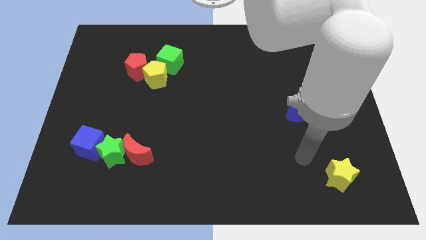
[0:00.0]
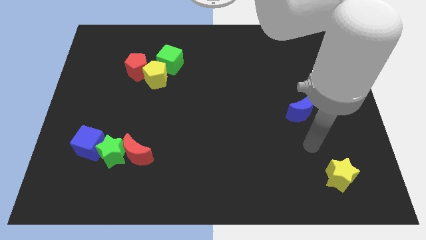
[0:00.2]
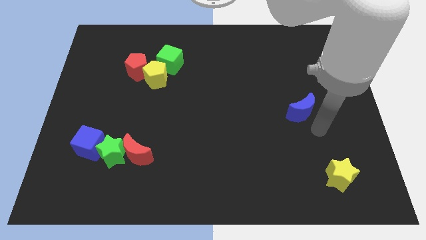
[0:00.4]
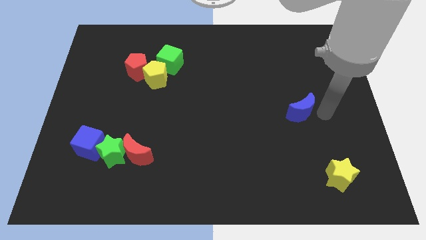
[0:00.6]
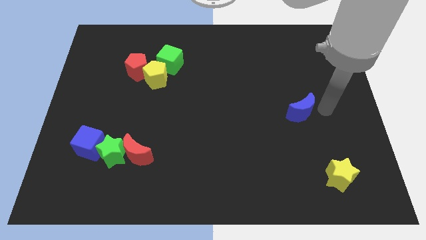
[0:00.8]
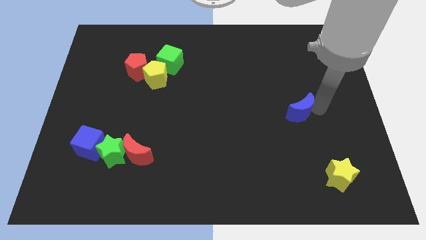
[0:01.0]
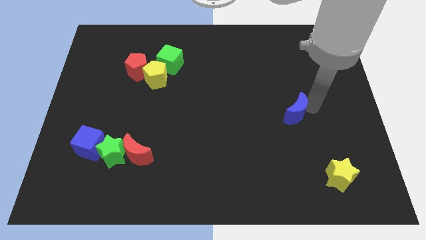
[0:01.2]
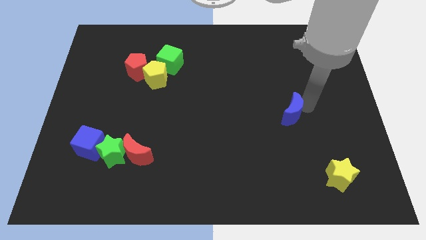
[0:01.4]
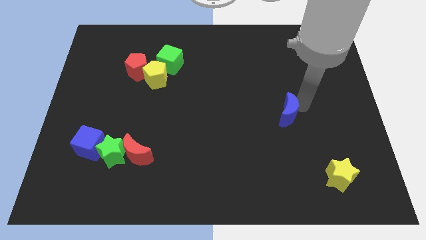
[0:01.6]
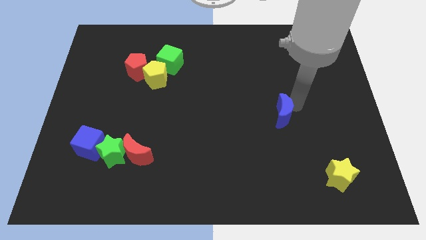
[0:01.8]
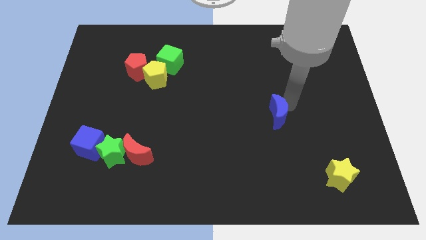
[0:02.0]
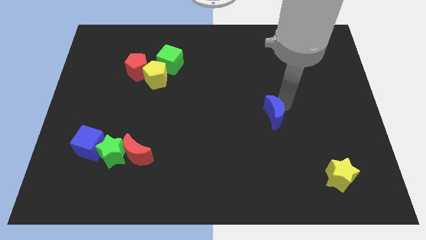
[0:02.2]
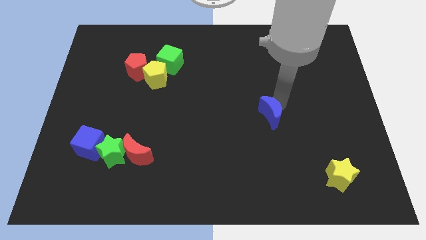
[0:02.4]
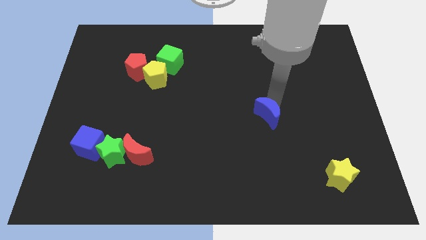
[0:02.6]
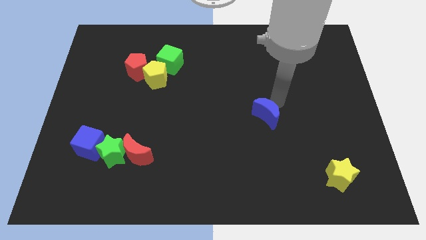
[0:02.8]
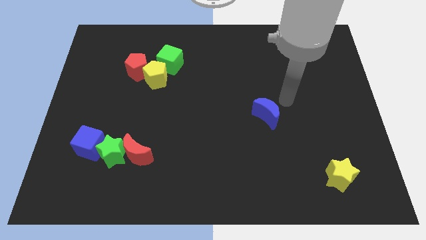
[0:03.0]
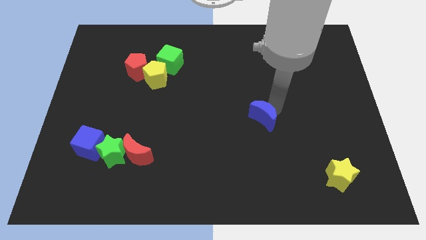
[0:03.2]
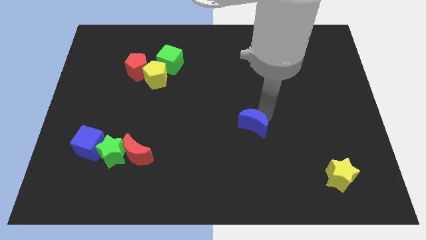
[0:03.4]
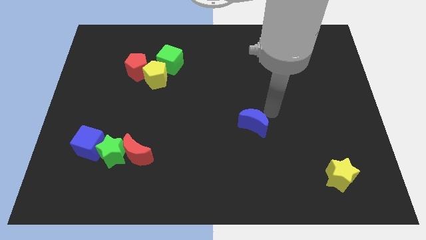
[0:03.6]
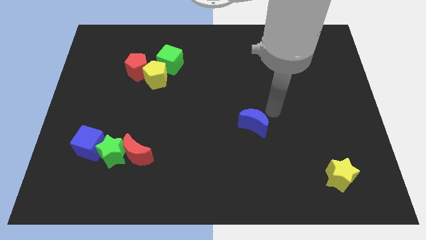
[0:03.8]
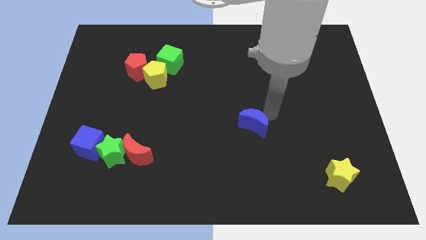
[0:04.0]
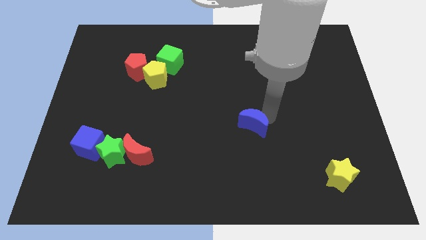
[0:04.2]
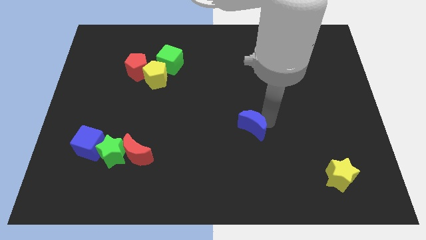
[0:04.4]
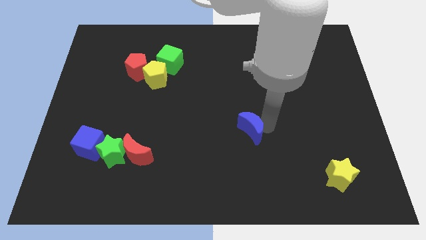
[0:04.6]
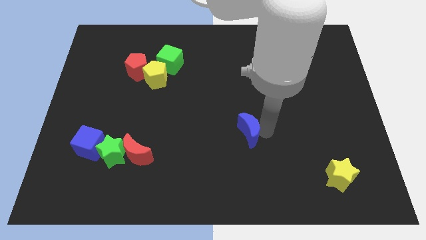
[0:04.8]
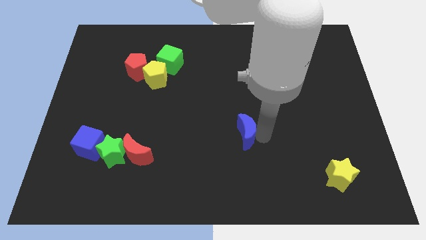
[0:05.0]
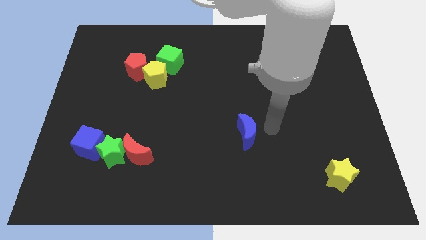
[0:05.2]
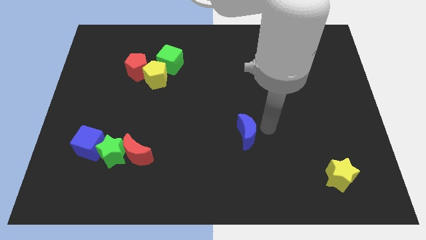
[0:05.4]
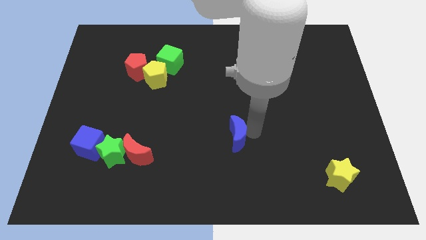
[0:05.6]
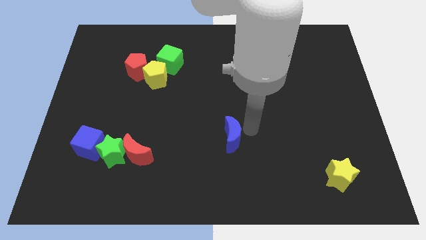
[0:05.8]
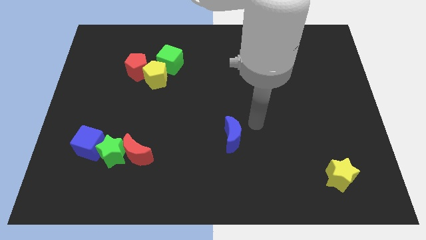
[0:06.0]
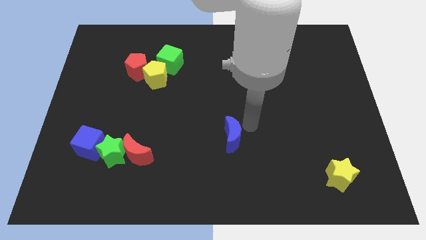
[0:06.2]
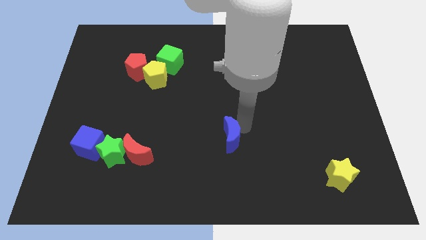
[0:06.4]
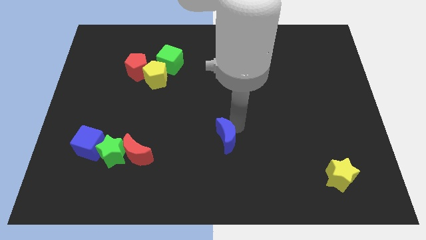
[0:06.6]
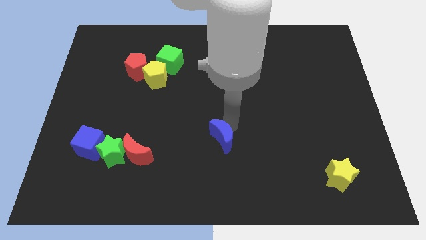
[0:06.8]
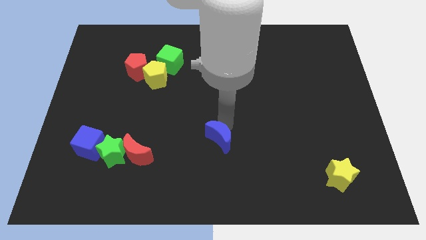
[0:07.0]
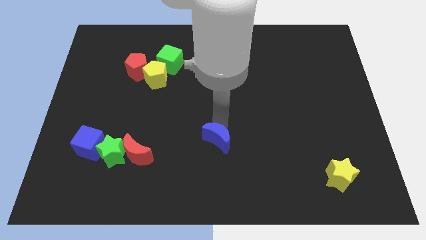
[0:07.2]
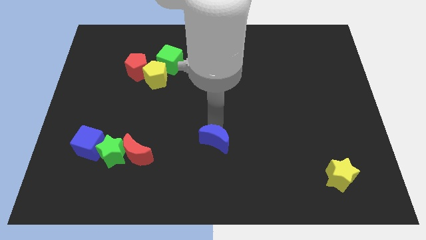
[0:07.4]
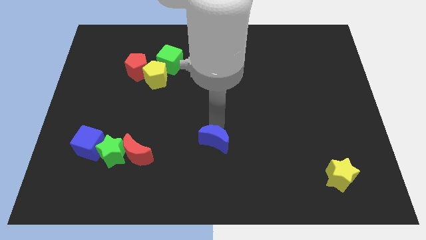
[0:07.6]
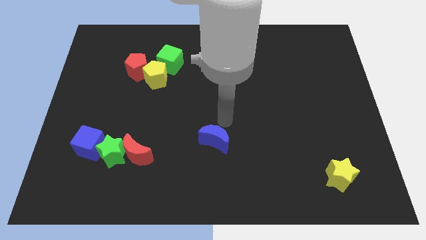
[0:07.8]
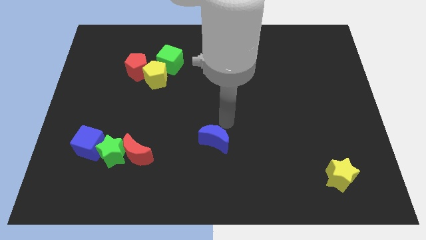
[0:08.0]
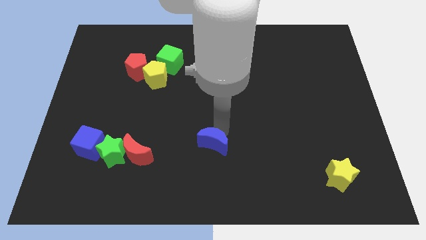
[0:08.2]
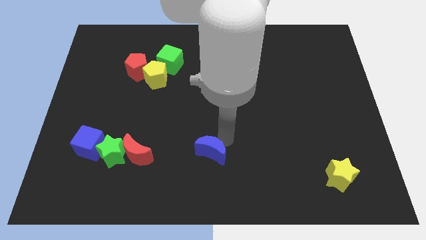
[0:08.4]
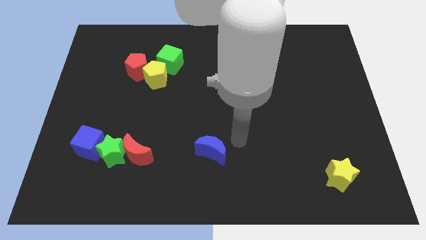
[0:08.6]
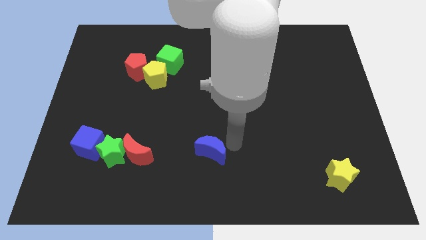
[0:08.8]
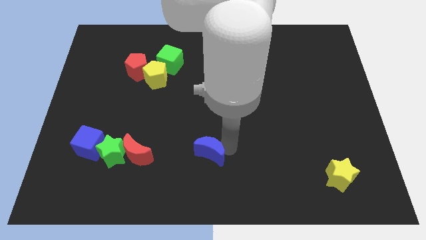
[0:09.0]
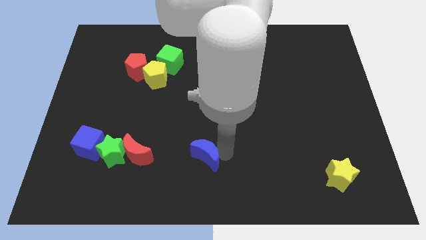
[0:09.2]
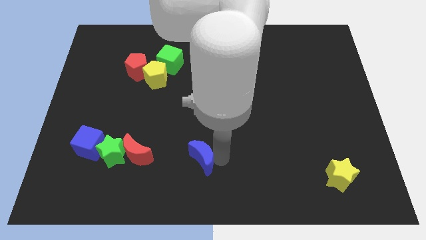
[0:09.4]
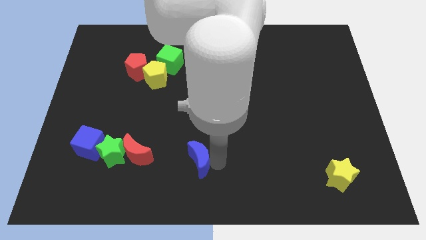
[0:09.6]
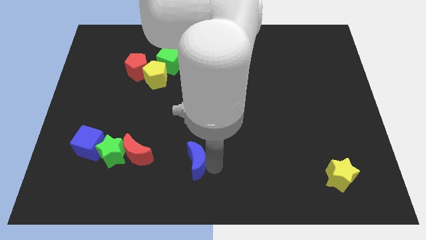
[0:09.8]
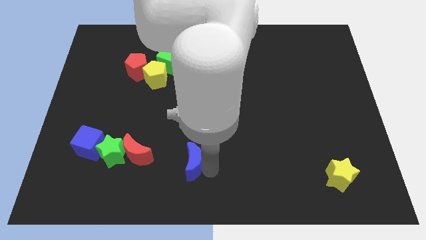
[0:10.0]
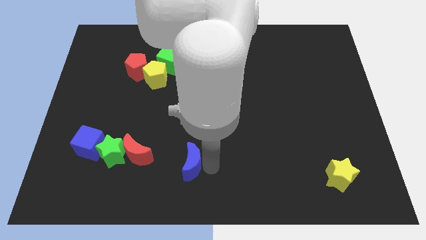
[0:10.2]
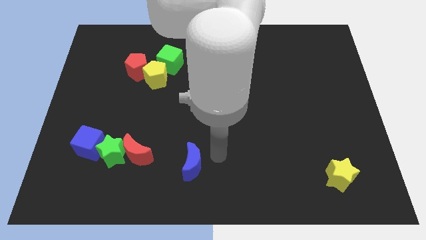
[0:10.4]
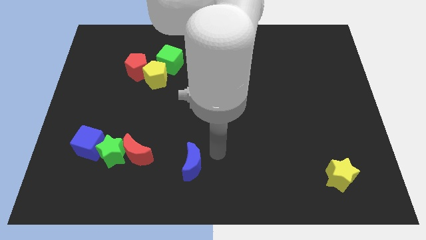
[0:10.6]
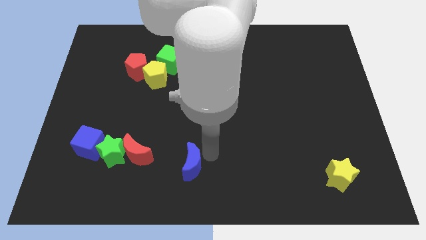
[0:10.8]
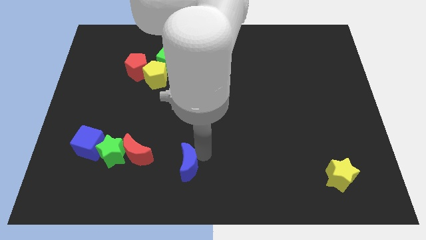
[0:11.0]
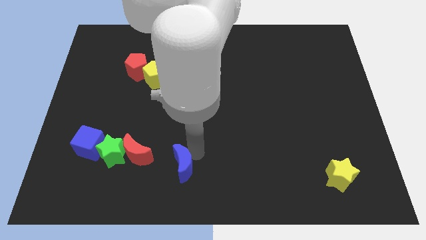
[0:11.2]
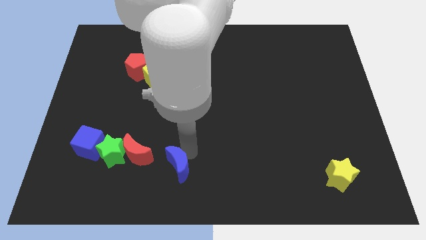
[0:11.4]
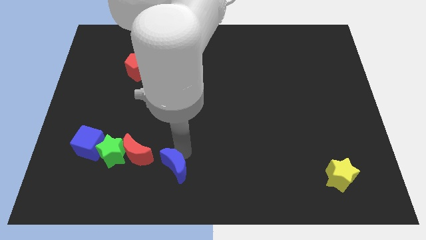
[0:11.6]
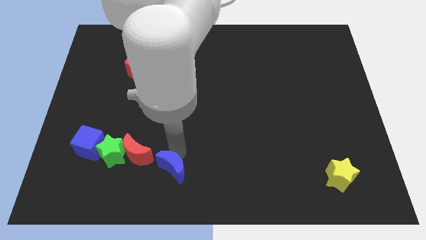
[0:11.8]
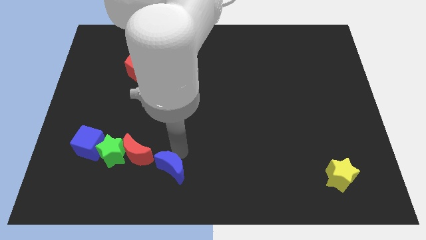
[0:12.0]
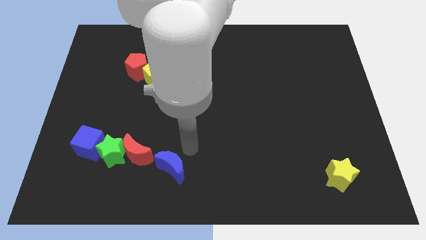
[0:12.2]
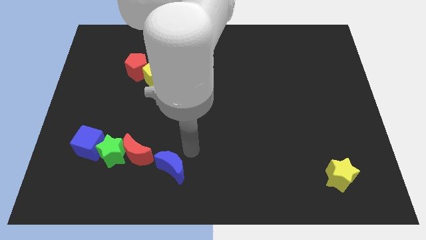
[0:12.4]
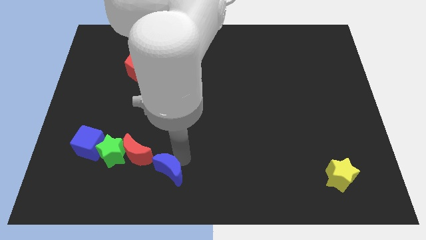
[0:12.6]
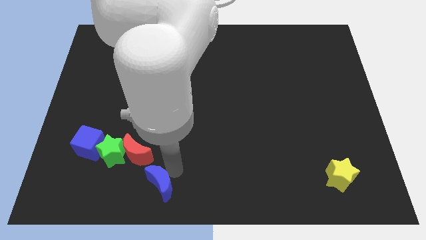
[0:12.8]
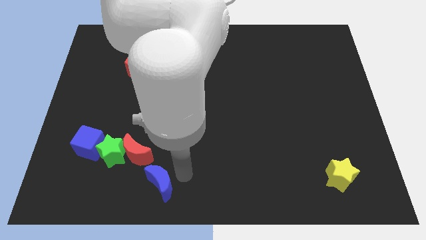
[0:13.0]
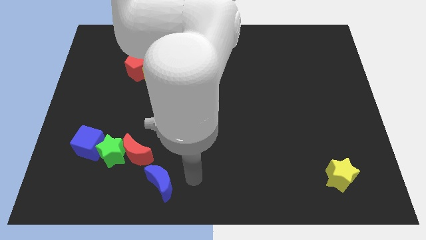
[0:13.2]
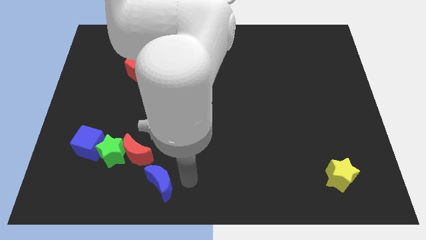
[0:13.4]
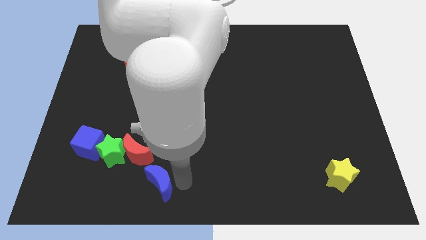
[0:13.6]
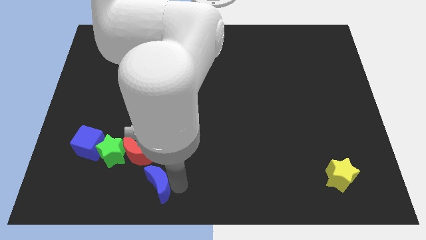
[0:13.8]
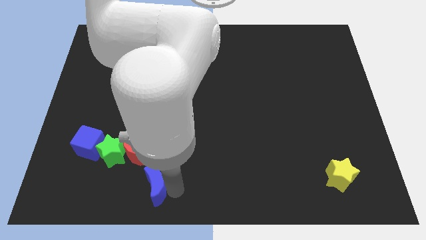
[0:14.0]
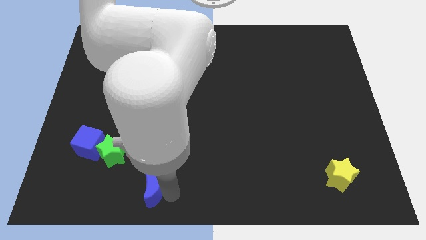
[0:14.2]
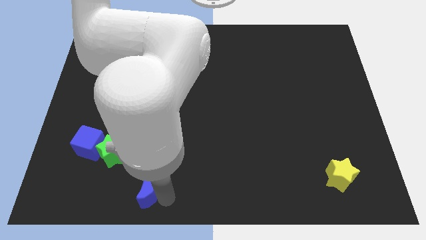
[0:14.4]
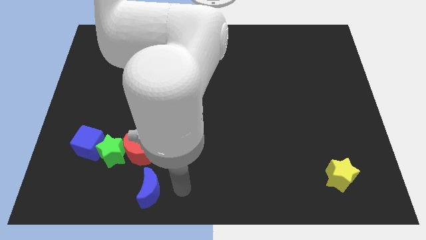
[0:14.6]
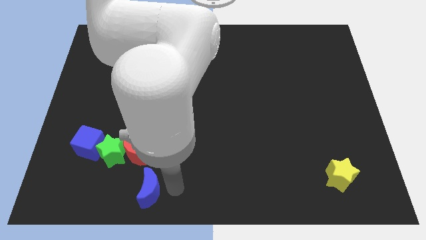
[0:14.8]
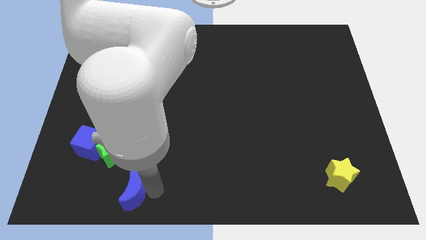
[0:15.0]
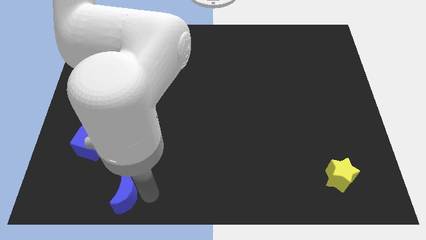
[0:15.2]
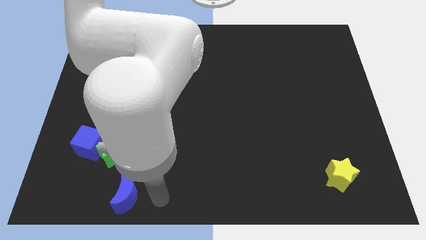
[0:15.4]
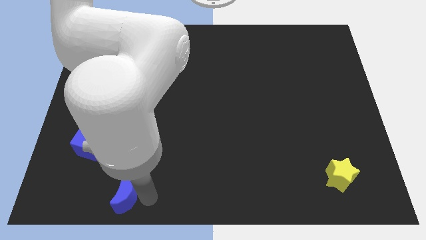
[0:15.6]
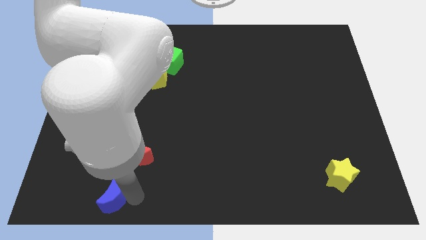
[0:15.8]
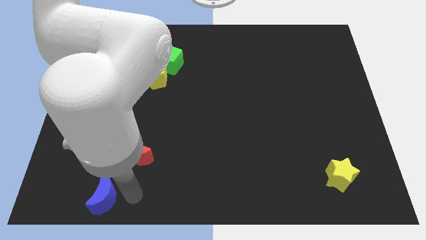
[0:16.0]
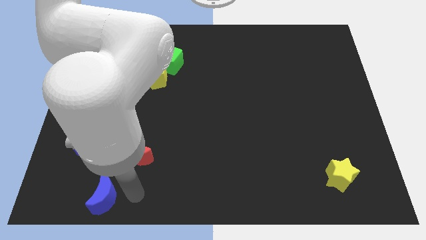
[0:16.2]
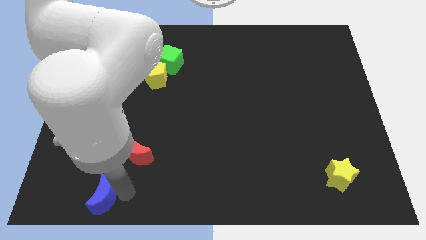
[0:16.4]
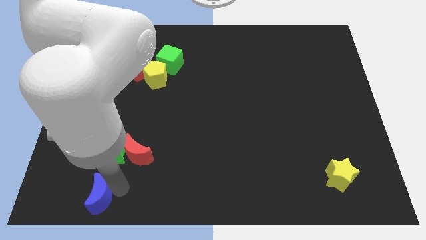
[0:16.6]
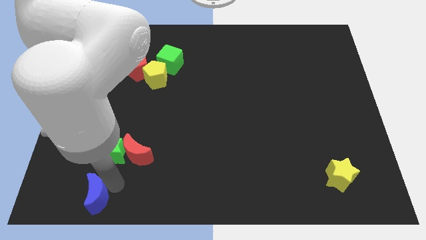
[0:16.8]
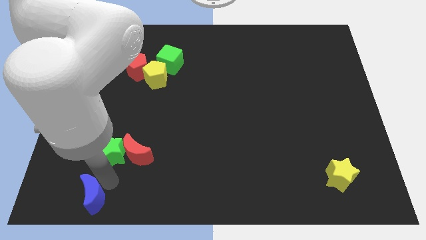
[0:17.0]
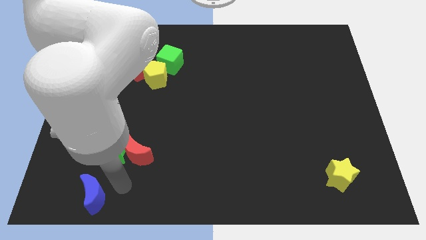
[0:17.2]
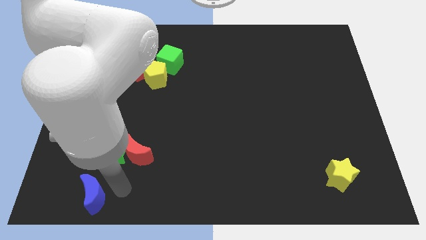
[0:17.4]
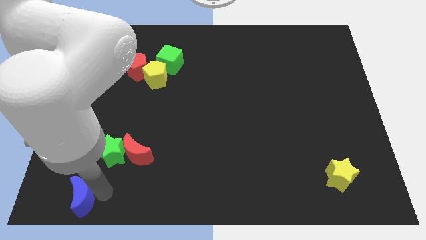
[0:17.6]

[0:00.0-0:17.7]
move the blue moon to the lower left corner
